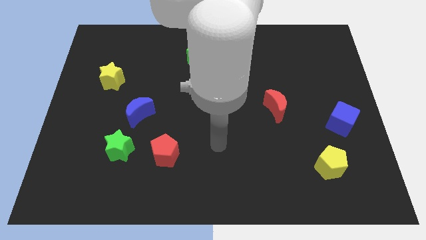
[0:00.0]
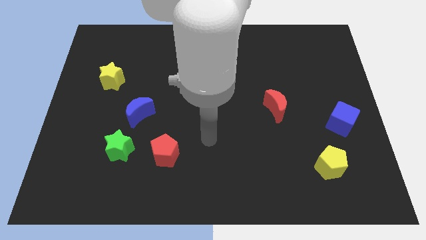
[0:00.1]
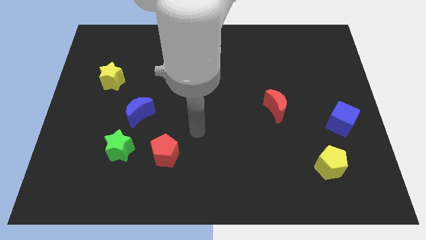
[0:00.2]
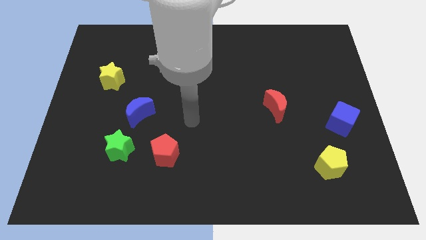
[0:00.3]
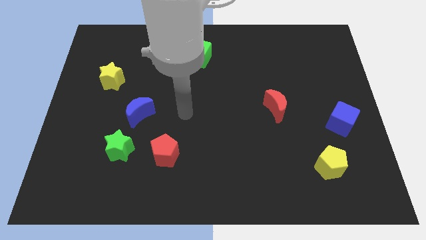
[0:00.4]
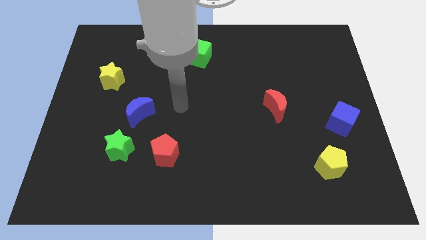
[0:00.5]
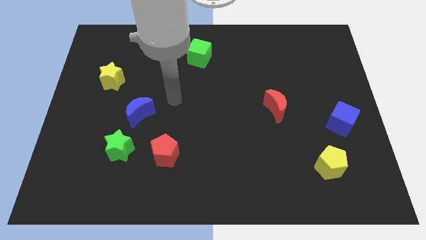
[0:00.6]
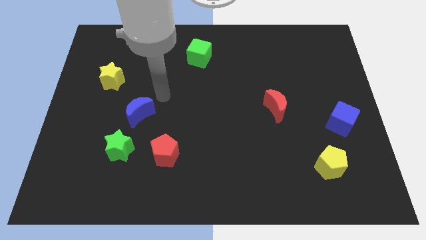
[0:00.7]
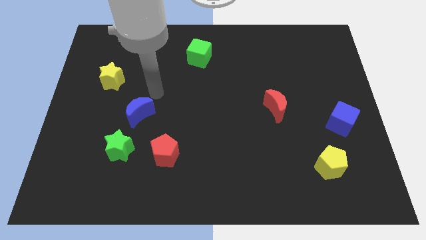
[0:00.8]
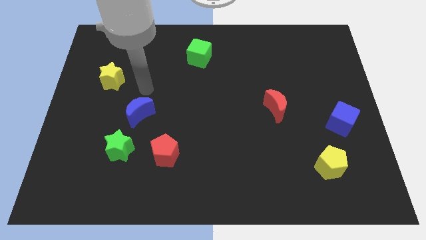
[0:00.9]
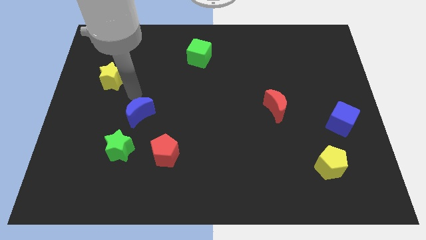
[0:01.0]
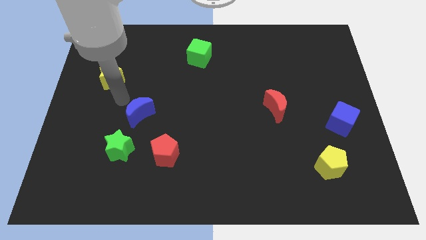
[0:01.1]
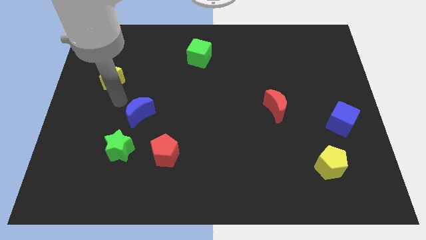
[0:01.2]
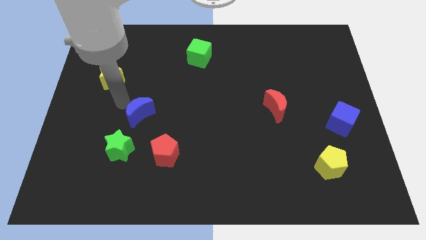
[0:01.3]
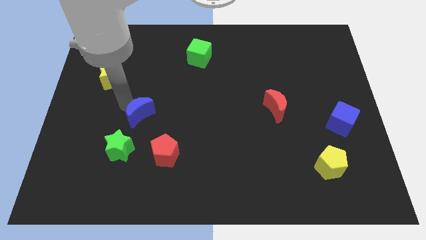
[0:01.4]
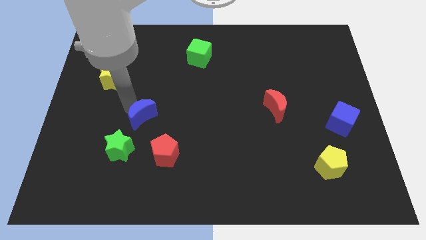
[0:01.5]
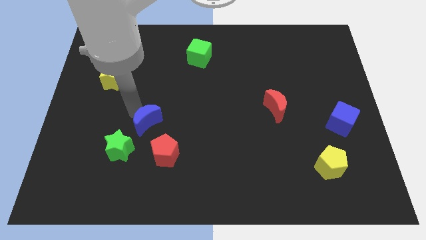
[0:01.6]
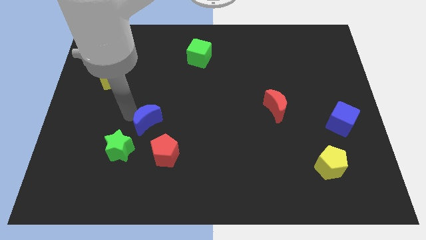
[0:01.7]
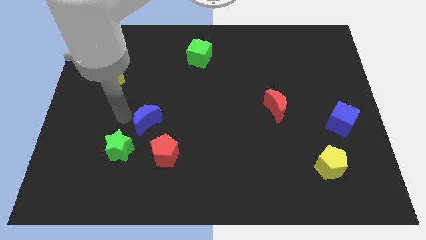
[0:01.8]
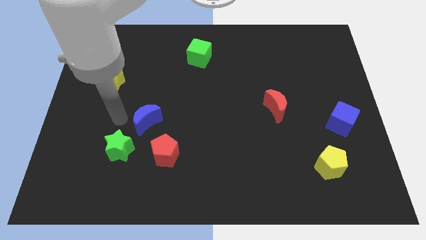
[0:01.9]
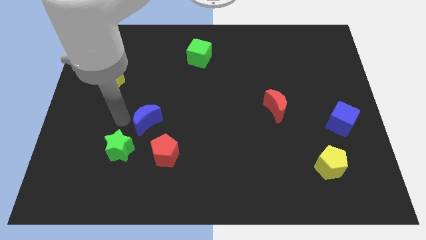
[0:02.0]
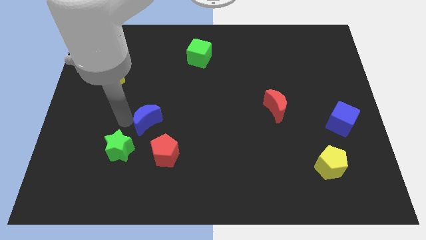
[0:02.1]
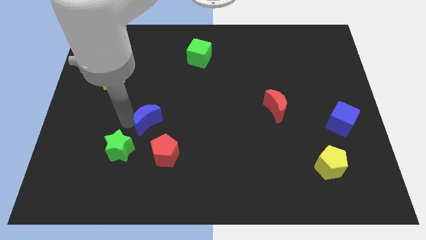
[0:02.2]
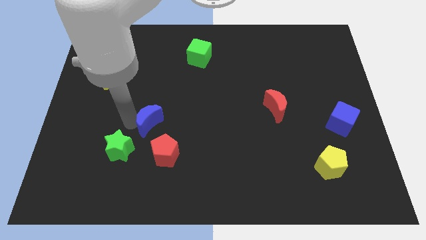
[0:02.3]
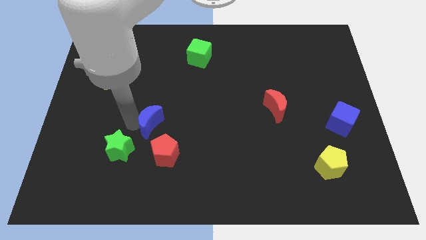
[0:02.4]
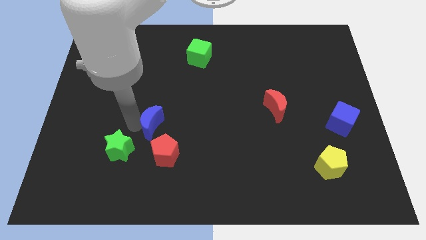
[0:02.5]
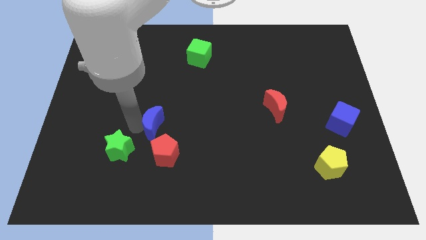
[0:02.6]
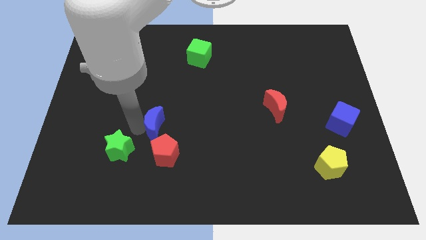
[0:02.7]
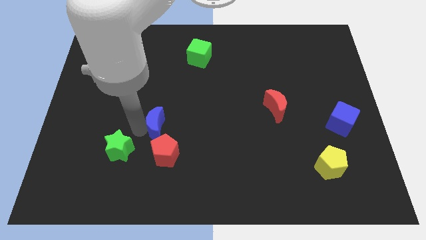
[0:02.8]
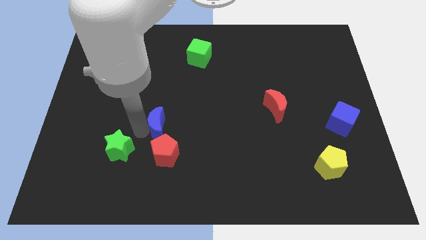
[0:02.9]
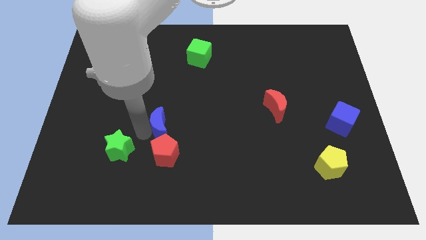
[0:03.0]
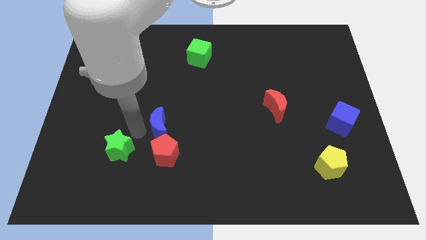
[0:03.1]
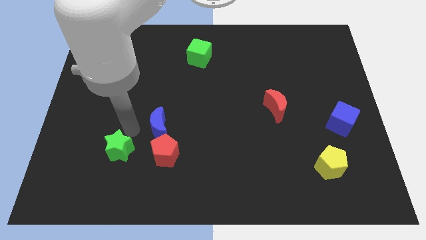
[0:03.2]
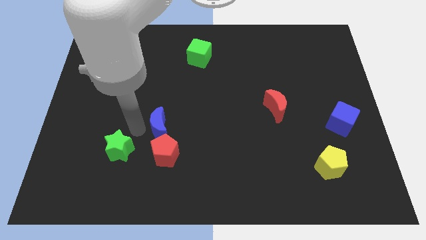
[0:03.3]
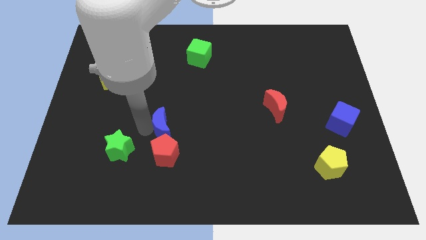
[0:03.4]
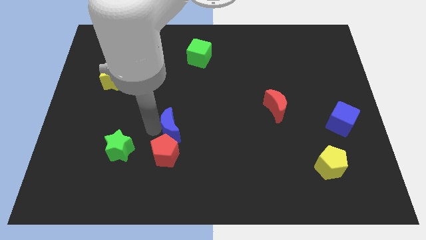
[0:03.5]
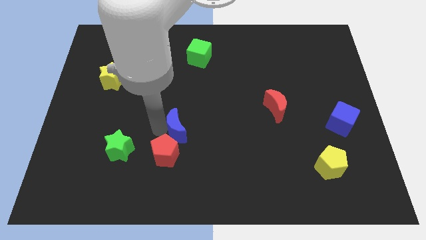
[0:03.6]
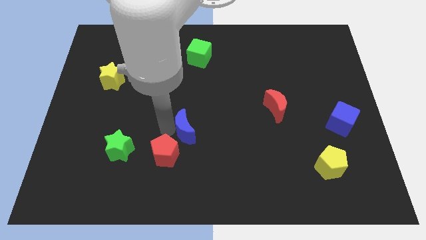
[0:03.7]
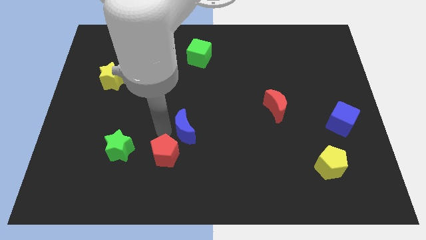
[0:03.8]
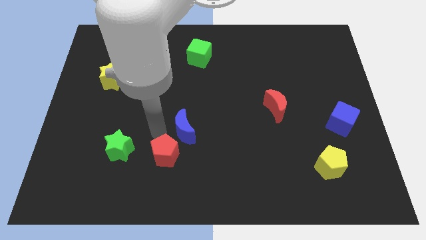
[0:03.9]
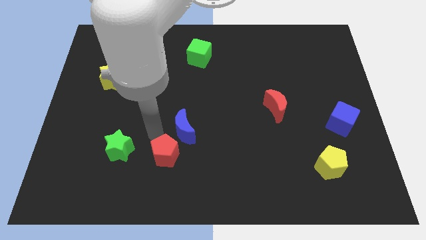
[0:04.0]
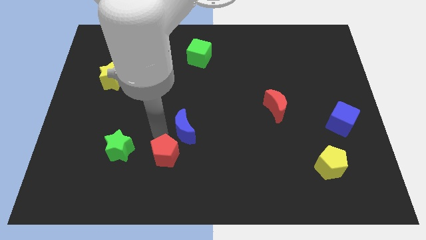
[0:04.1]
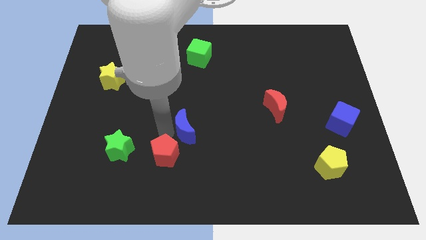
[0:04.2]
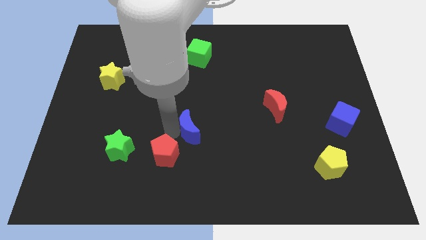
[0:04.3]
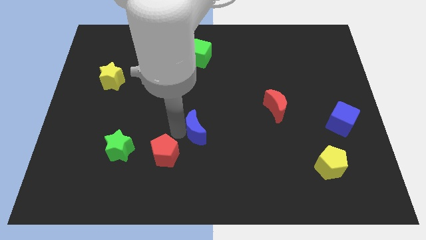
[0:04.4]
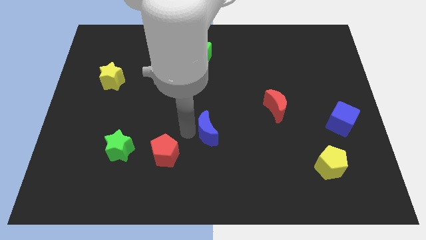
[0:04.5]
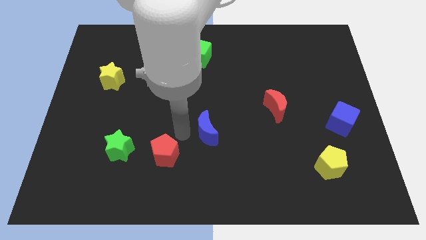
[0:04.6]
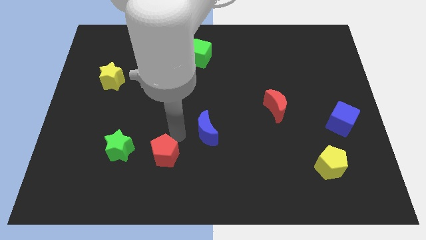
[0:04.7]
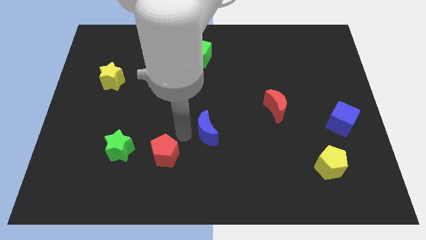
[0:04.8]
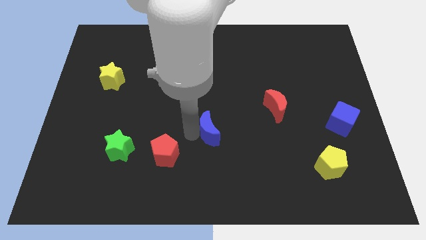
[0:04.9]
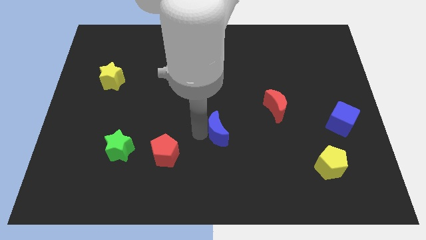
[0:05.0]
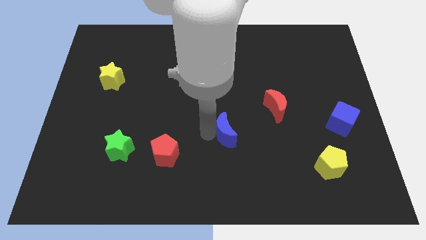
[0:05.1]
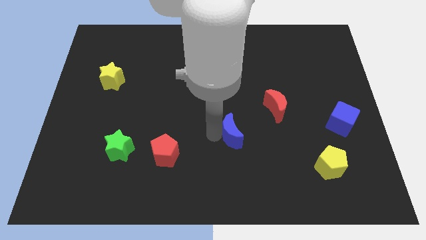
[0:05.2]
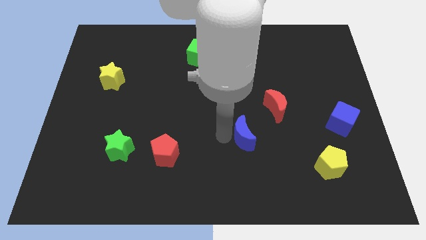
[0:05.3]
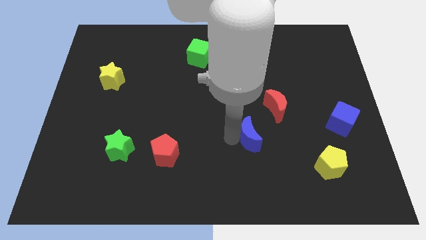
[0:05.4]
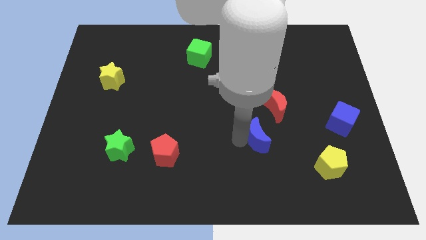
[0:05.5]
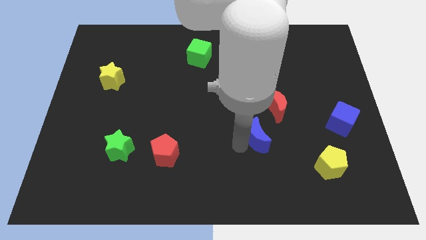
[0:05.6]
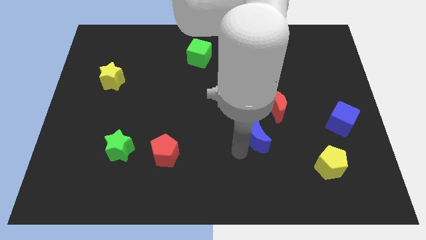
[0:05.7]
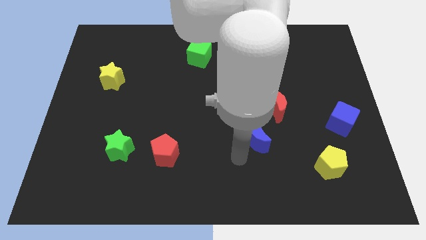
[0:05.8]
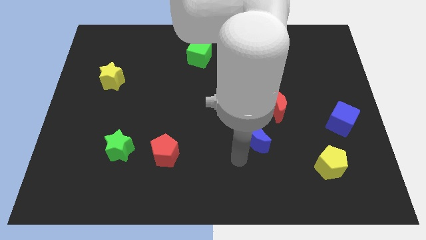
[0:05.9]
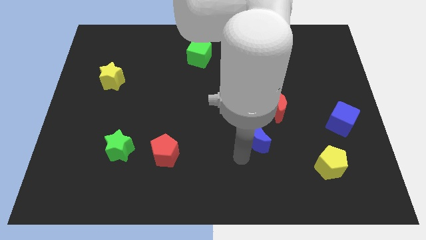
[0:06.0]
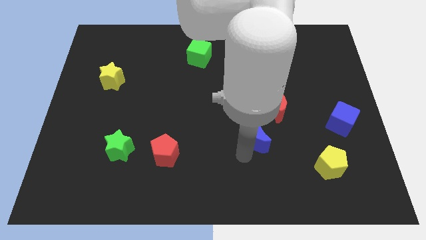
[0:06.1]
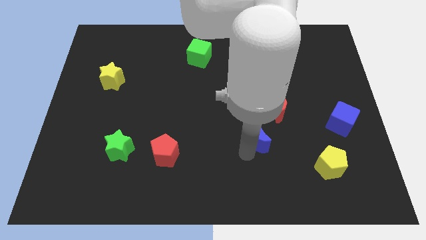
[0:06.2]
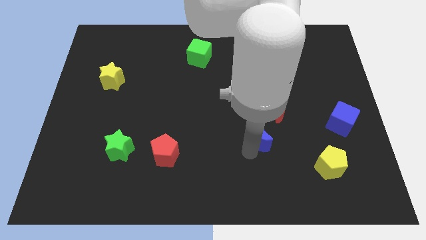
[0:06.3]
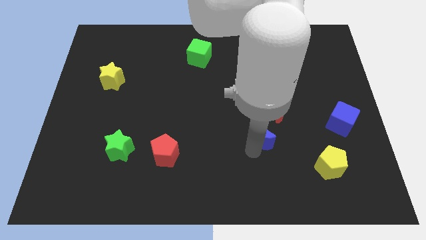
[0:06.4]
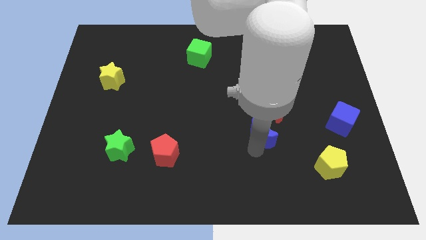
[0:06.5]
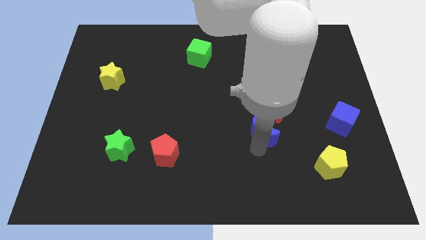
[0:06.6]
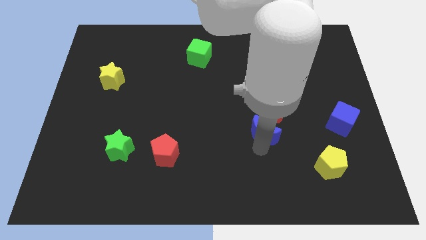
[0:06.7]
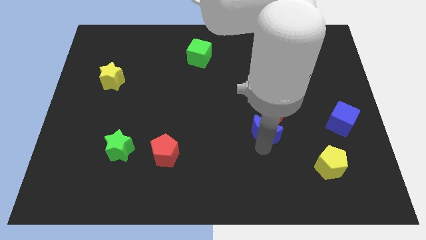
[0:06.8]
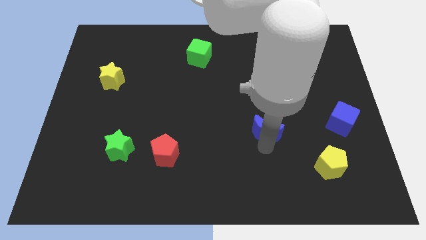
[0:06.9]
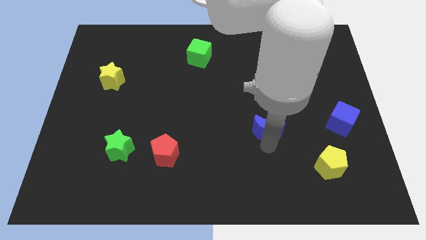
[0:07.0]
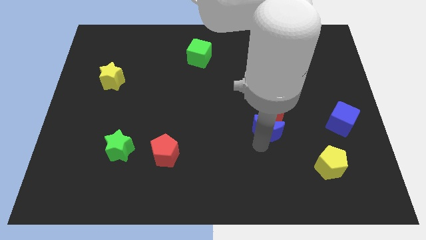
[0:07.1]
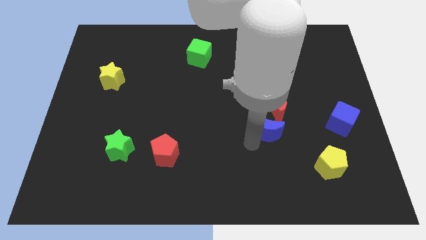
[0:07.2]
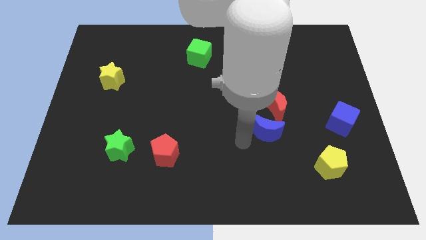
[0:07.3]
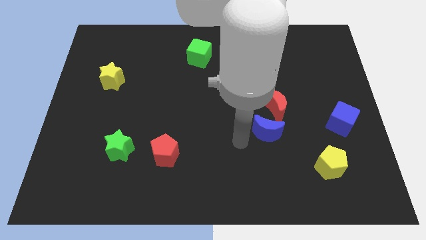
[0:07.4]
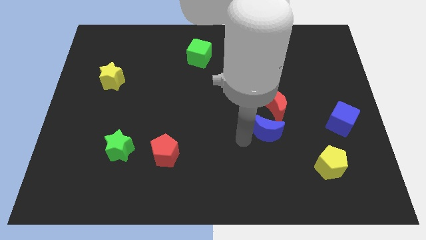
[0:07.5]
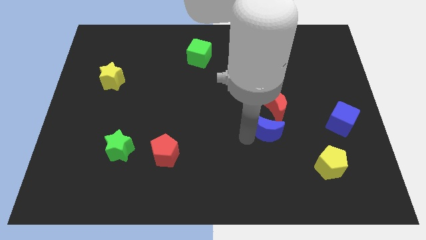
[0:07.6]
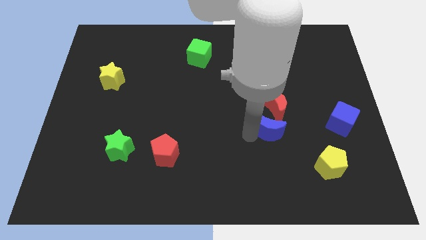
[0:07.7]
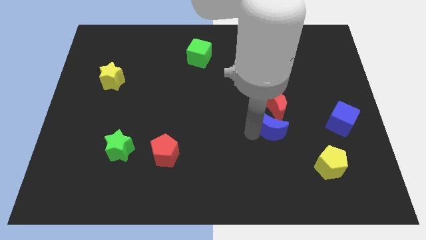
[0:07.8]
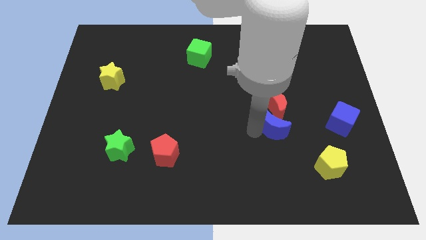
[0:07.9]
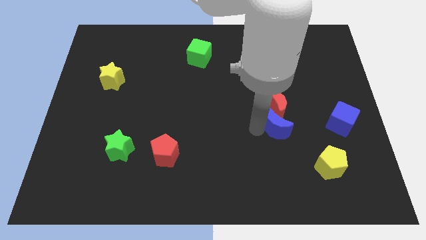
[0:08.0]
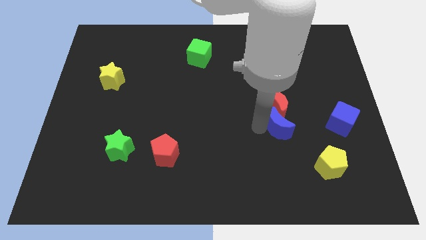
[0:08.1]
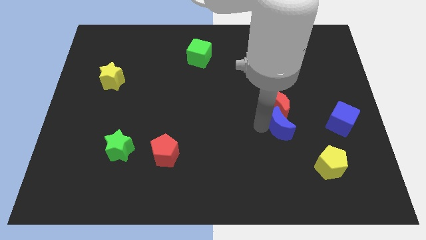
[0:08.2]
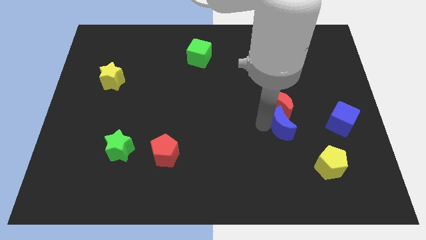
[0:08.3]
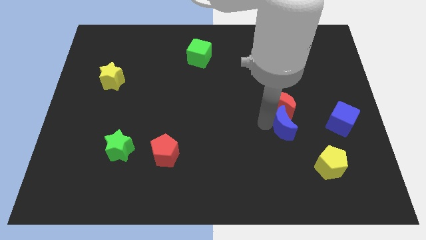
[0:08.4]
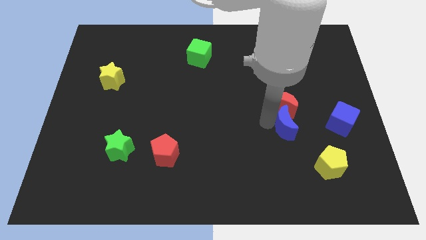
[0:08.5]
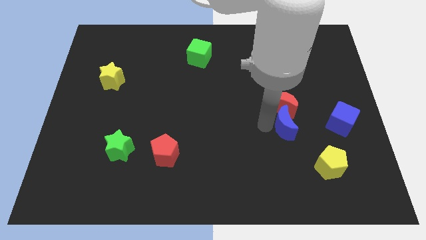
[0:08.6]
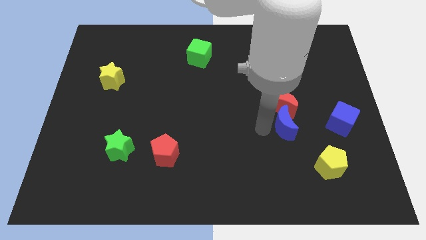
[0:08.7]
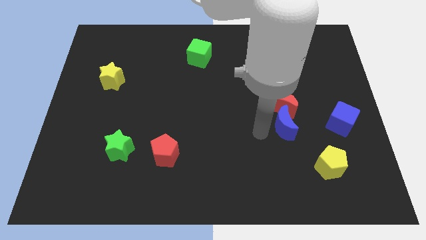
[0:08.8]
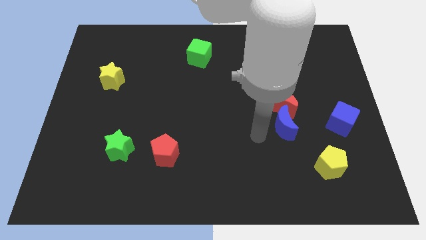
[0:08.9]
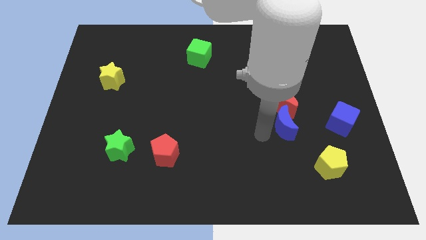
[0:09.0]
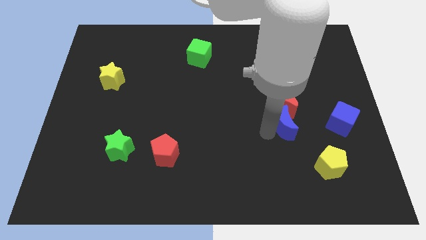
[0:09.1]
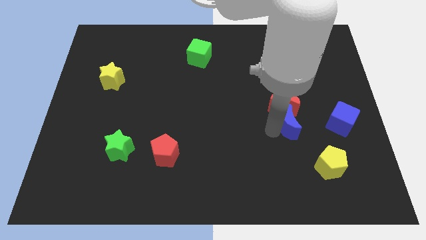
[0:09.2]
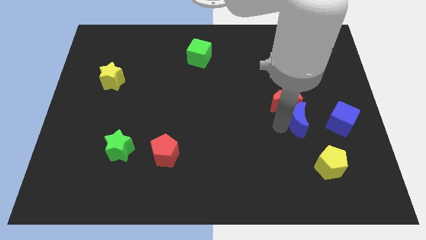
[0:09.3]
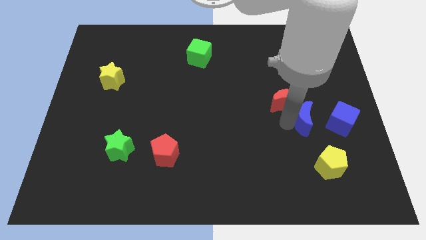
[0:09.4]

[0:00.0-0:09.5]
push the blue moon above the yellow pentagon
